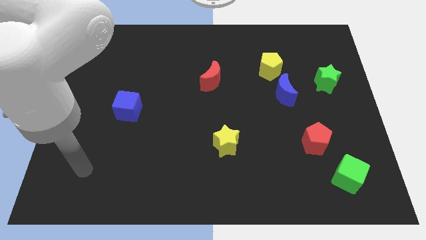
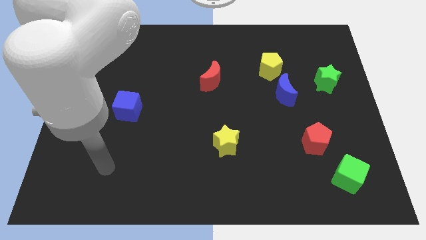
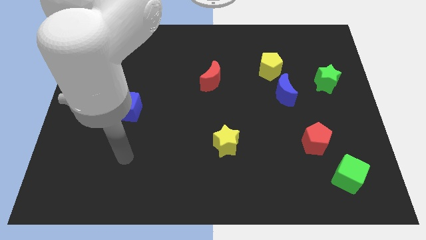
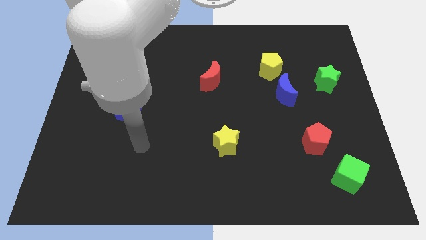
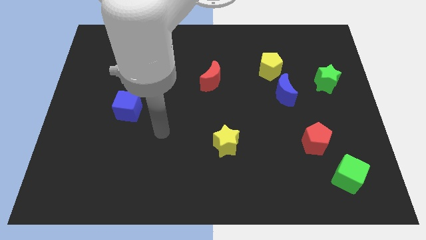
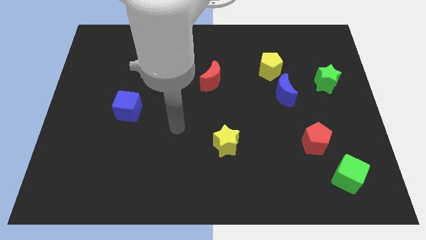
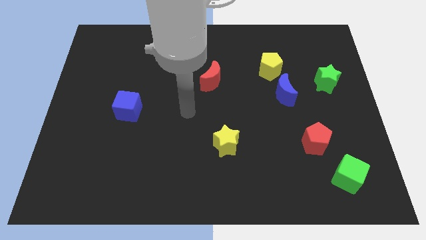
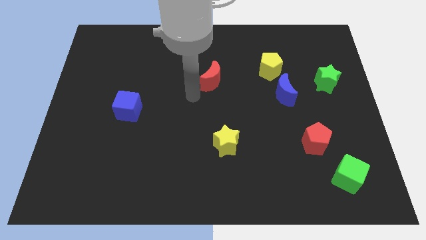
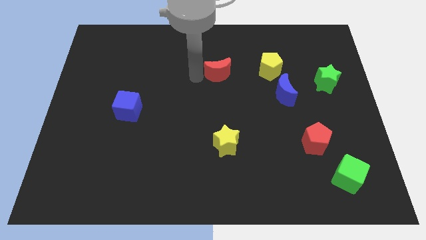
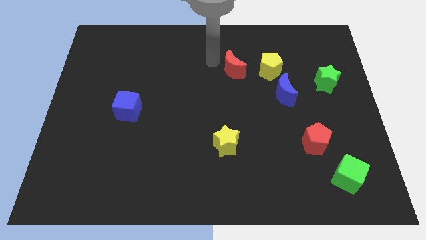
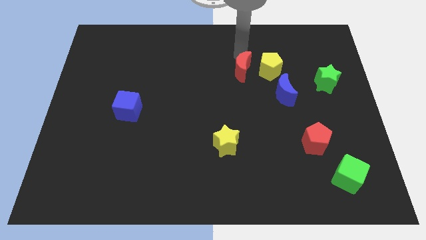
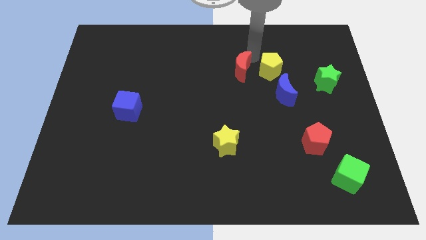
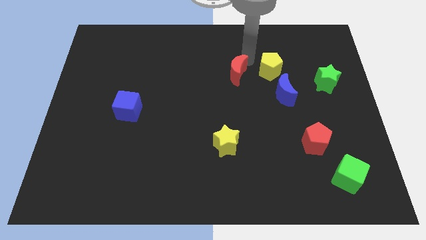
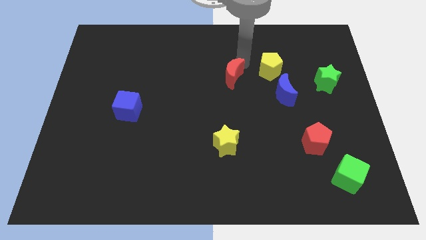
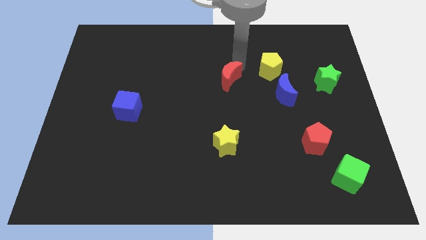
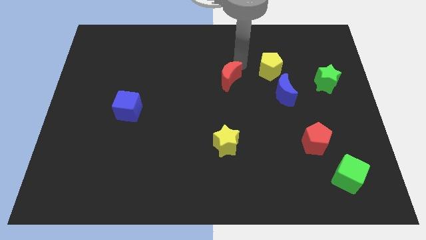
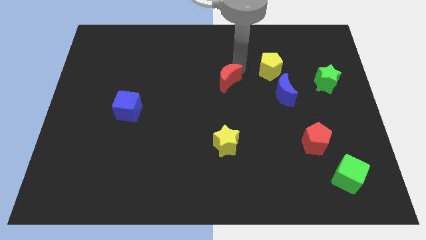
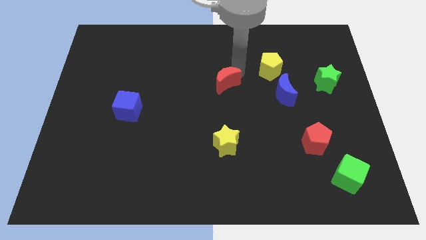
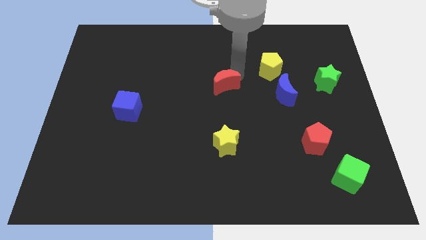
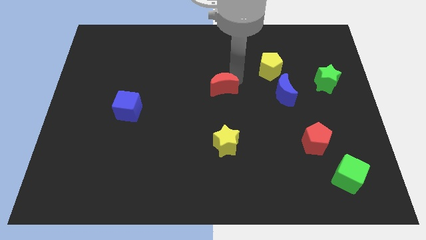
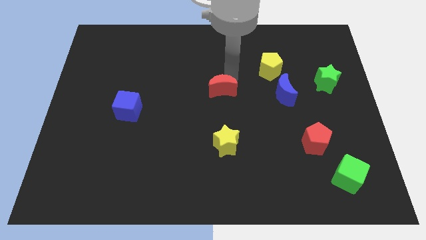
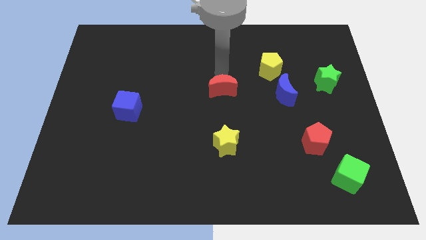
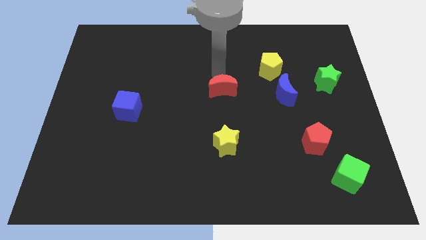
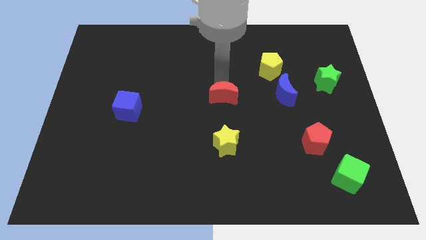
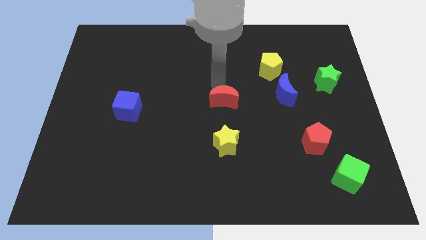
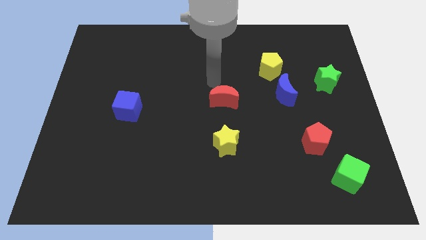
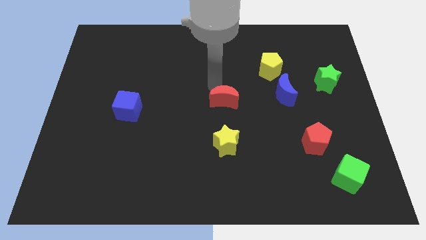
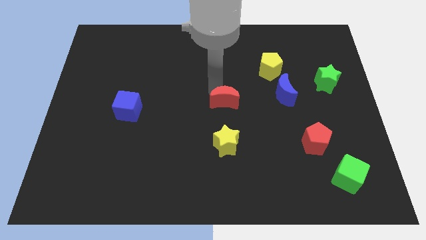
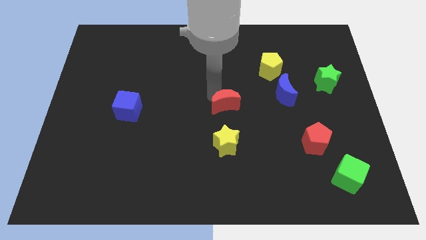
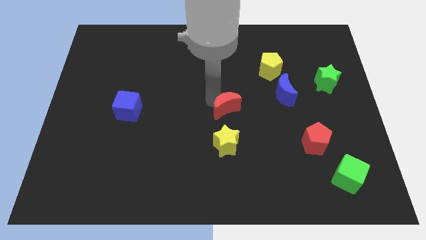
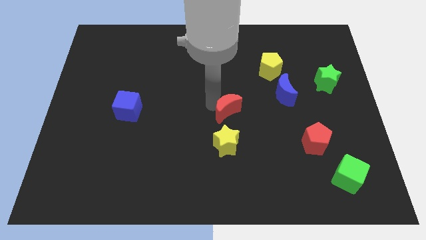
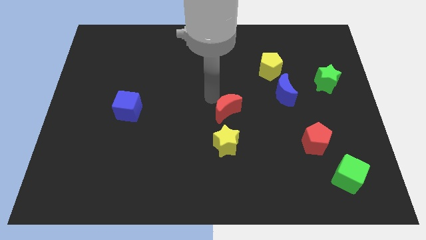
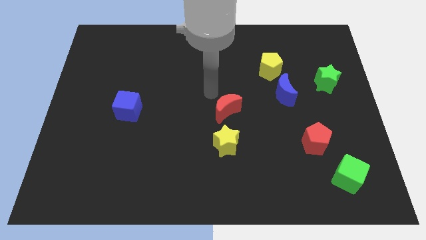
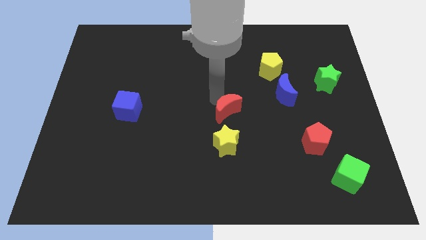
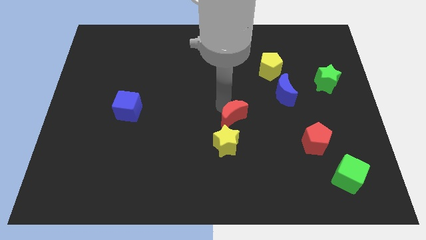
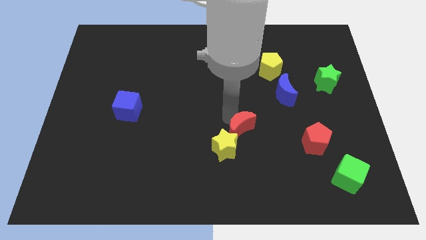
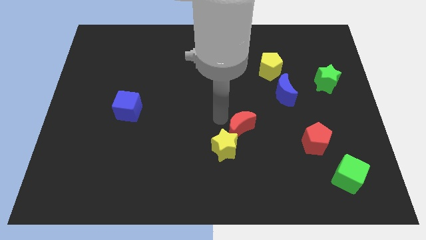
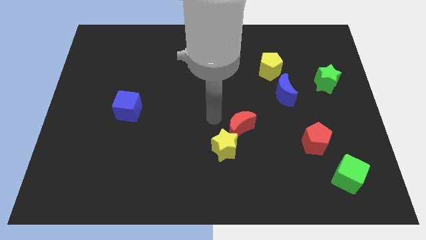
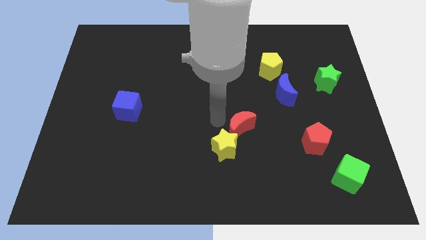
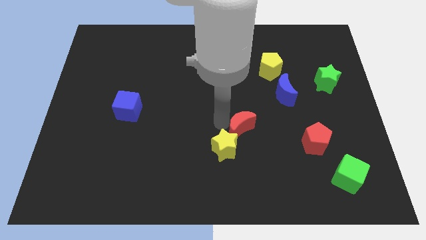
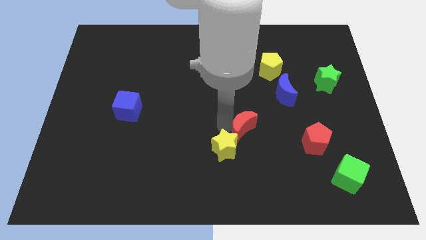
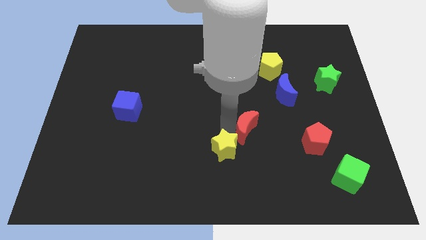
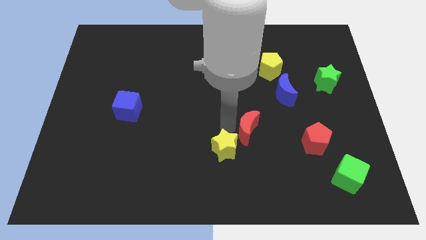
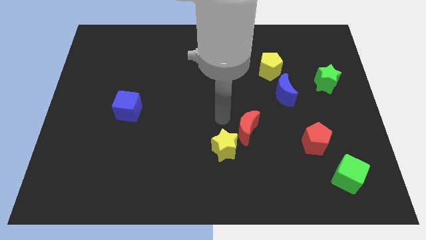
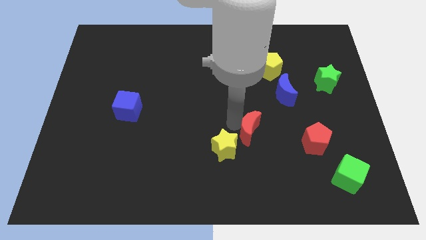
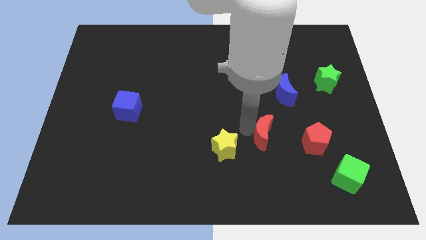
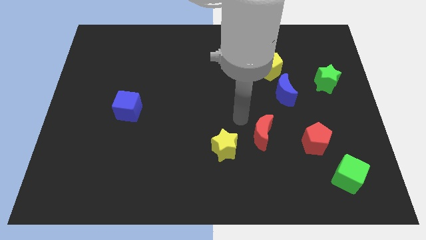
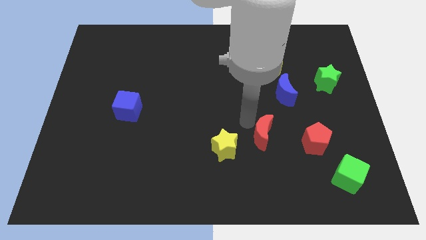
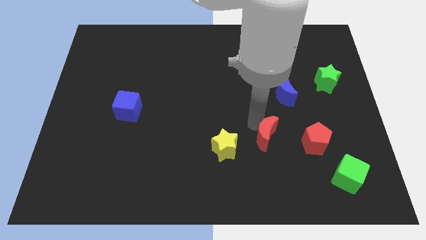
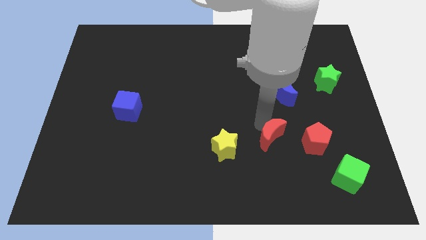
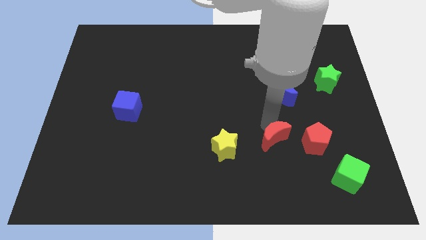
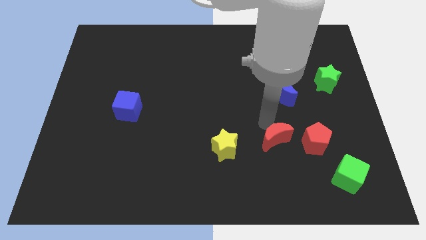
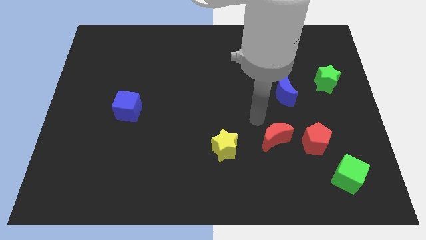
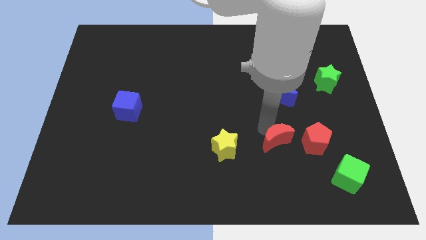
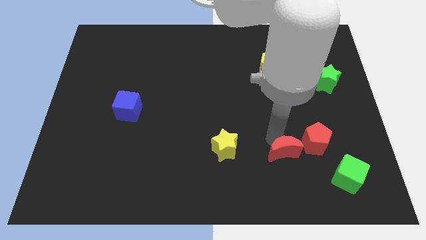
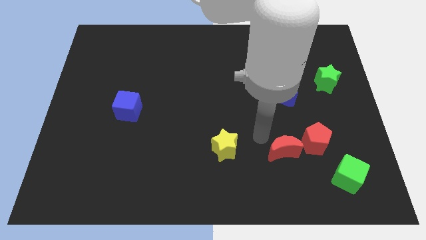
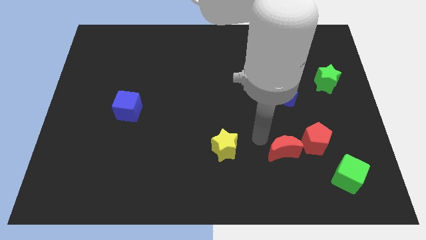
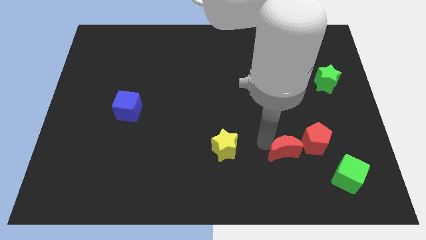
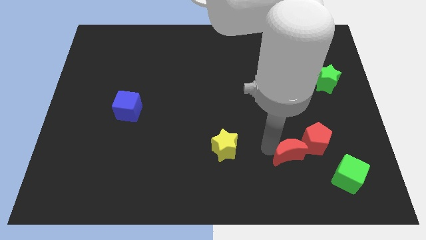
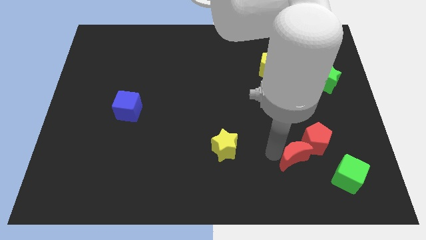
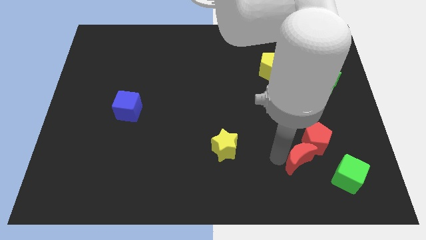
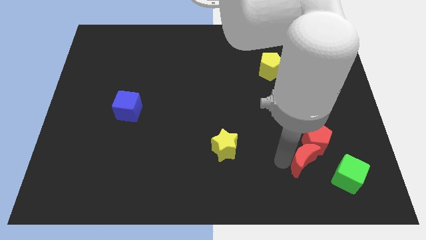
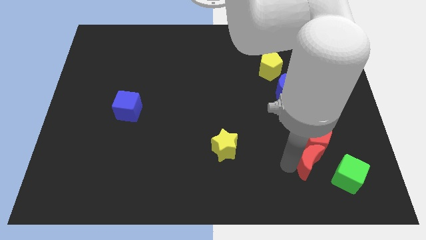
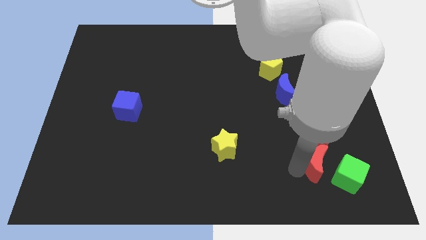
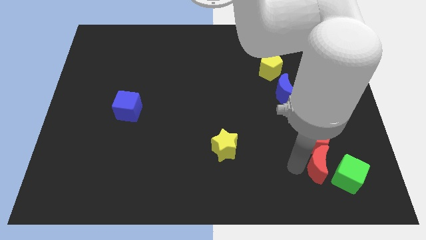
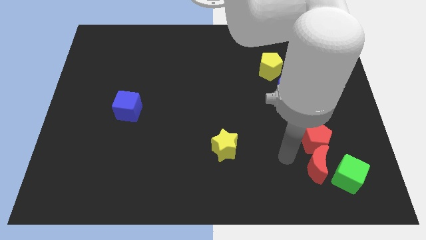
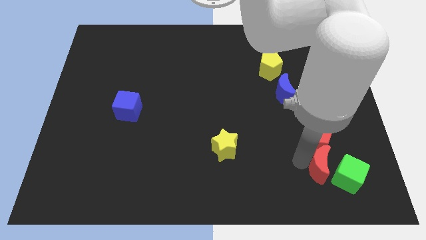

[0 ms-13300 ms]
push the red moon to the green cube

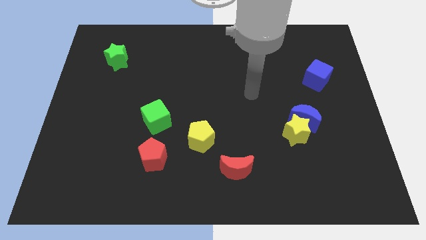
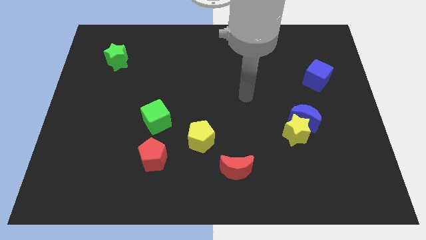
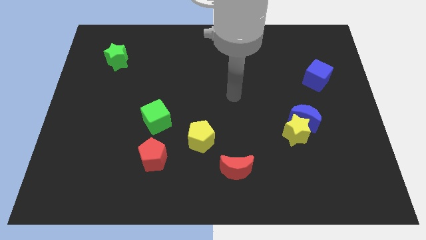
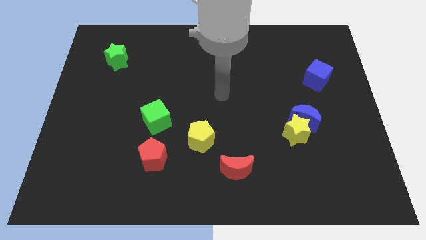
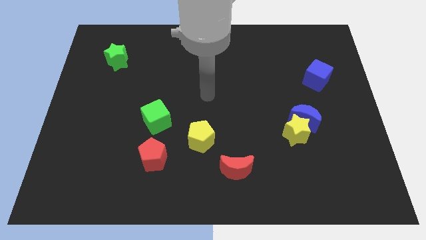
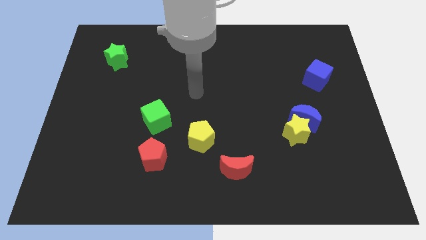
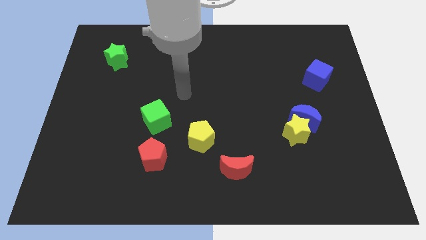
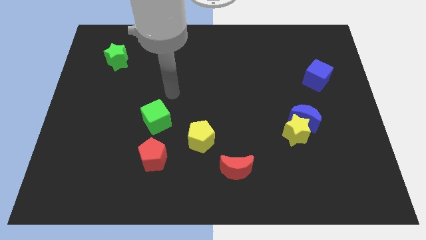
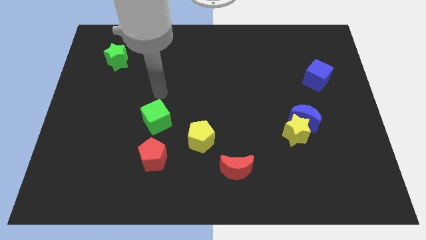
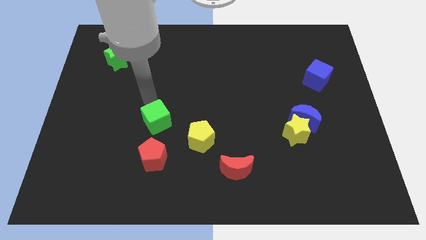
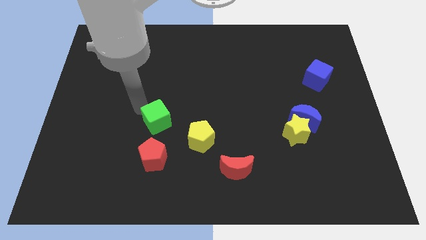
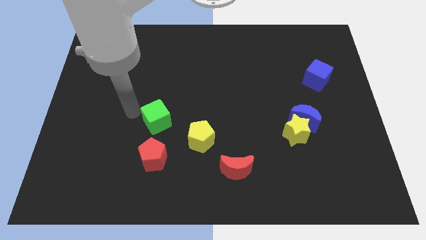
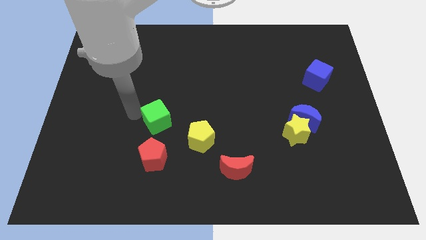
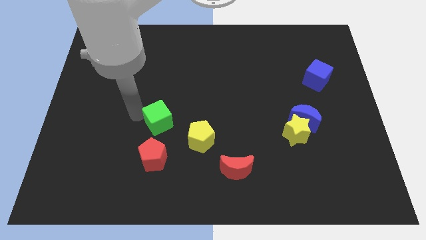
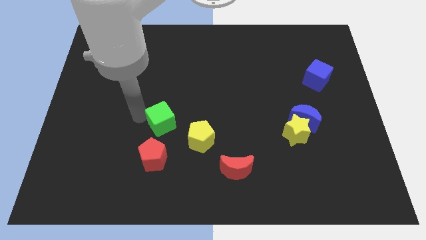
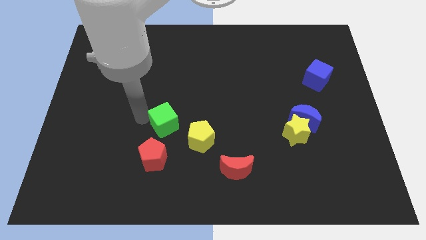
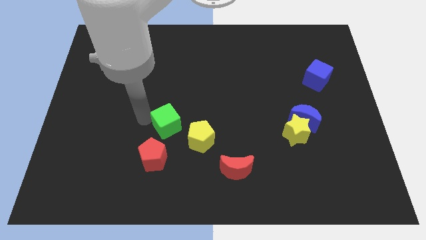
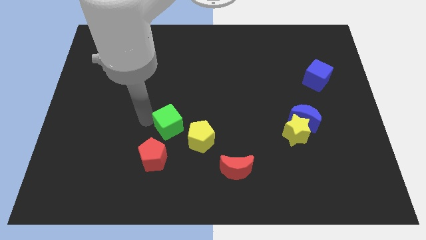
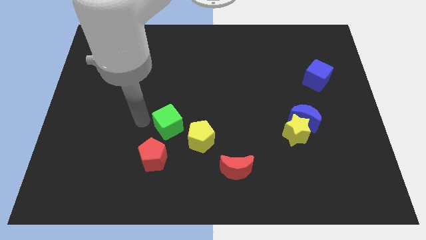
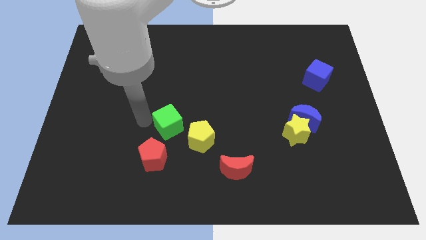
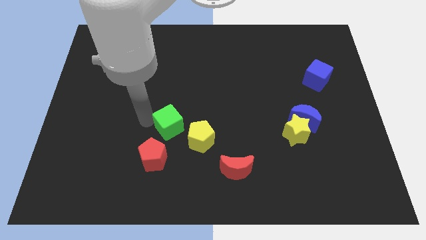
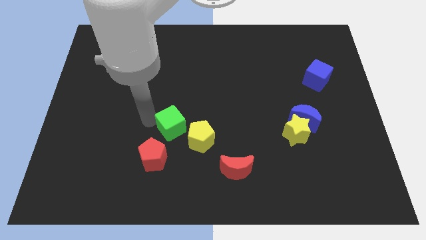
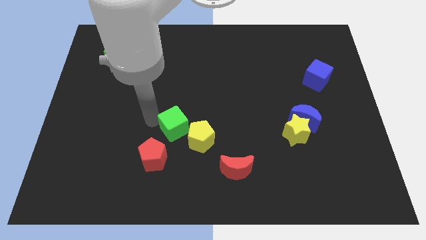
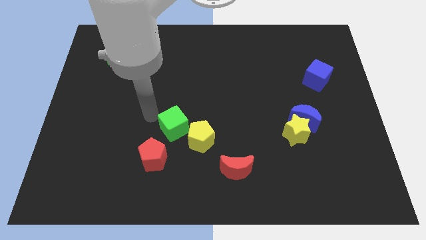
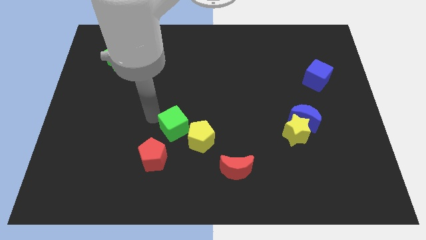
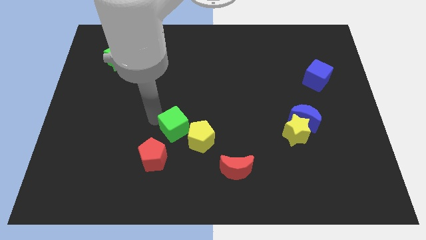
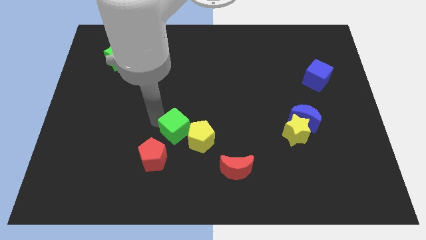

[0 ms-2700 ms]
put the green cube towards the yellow pentagon
